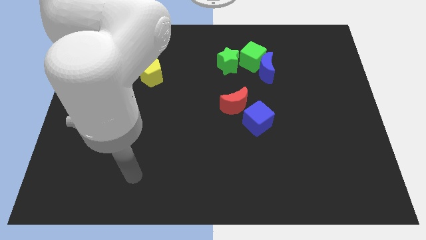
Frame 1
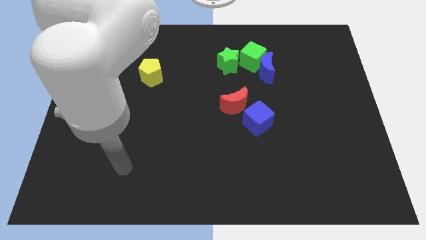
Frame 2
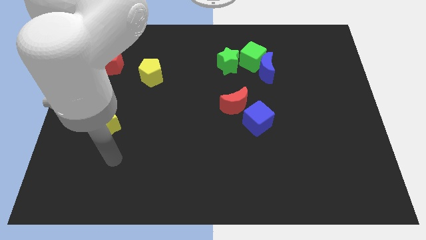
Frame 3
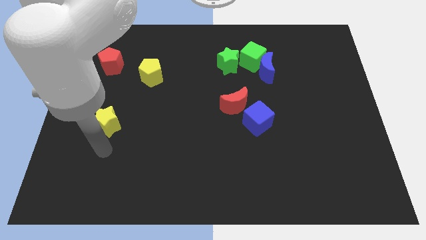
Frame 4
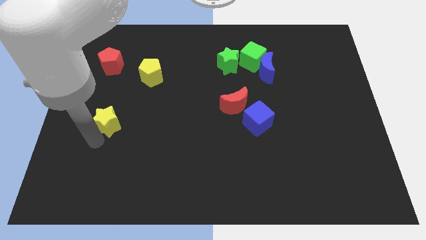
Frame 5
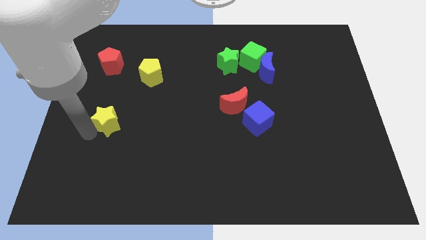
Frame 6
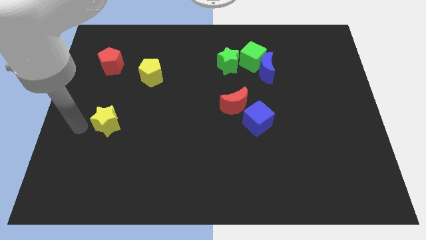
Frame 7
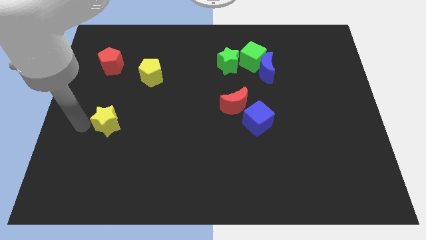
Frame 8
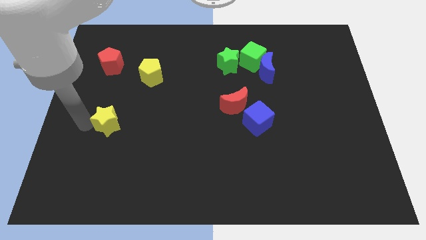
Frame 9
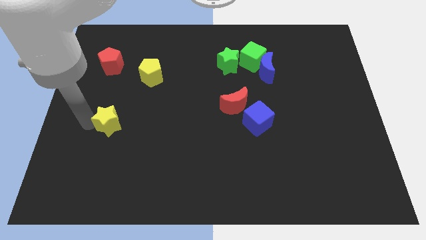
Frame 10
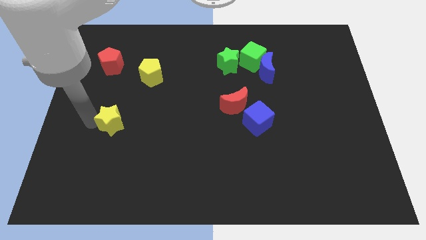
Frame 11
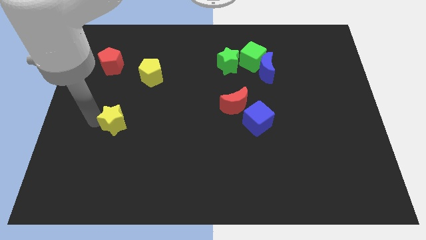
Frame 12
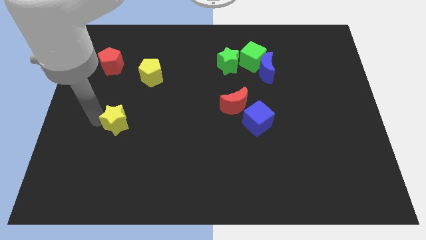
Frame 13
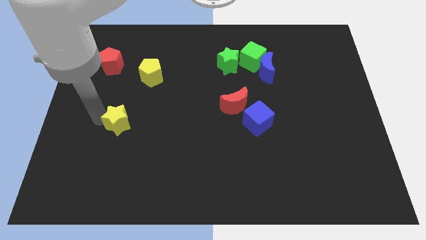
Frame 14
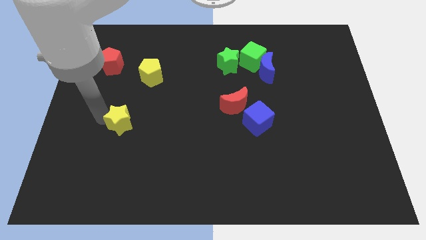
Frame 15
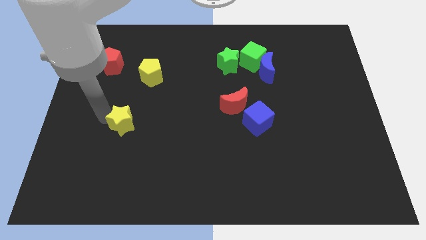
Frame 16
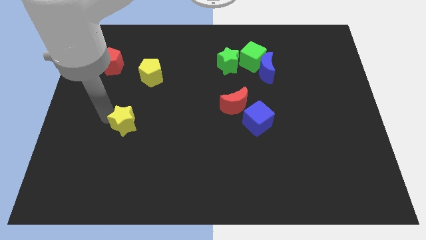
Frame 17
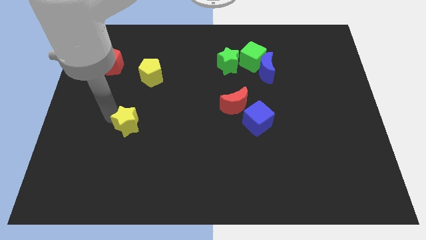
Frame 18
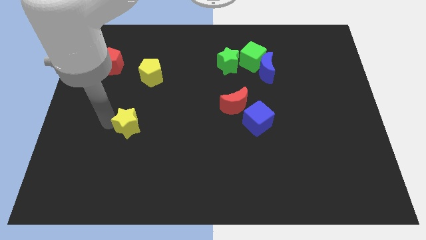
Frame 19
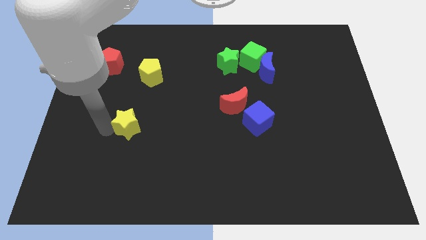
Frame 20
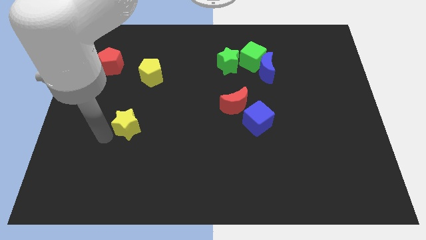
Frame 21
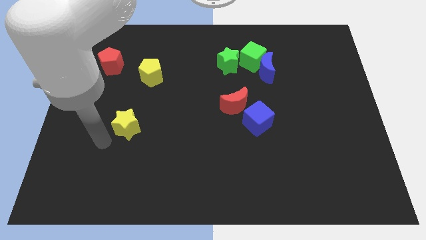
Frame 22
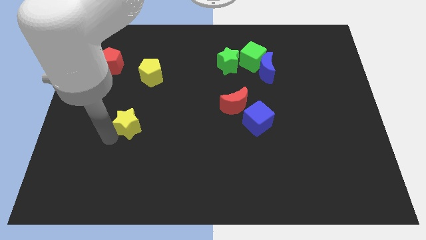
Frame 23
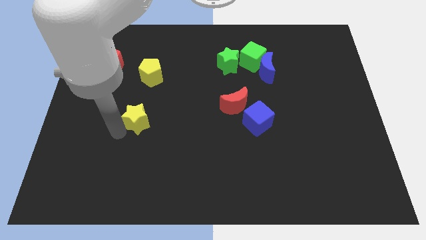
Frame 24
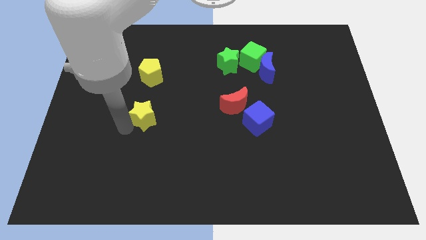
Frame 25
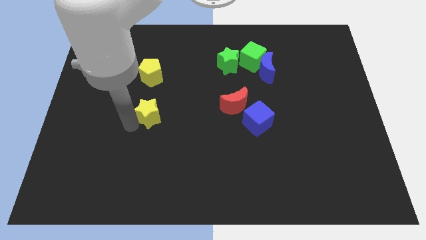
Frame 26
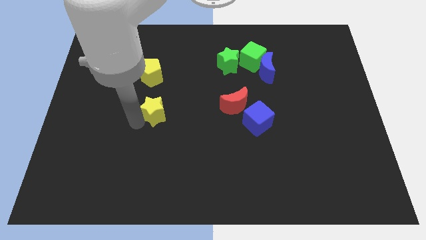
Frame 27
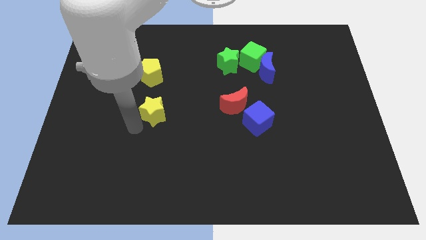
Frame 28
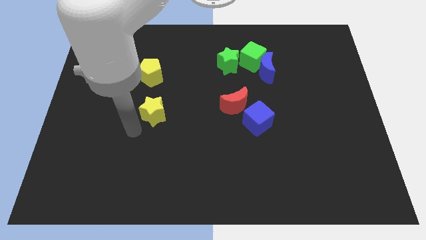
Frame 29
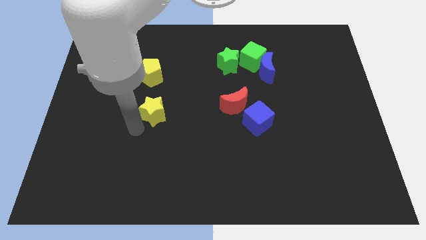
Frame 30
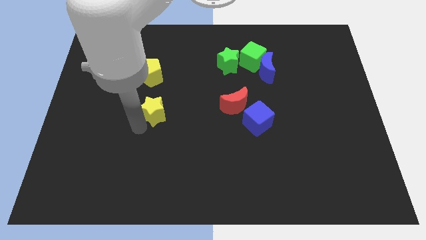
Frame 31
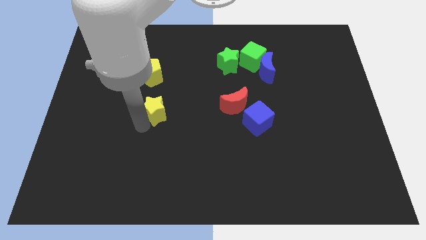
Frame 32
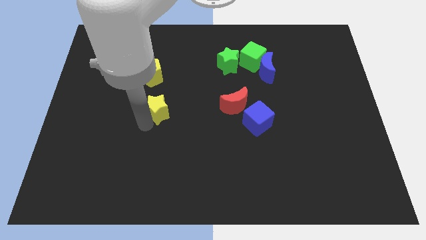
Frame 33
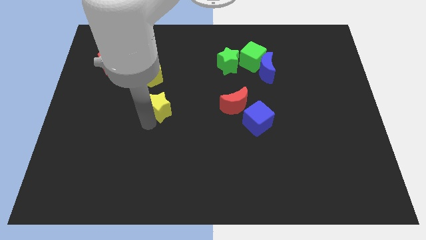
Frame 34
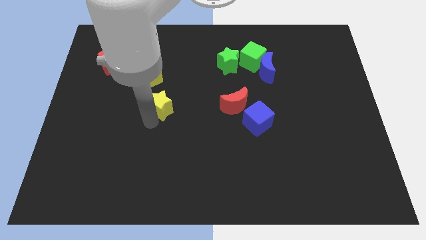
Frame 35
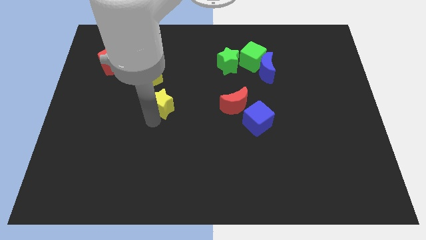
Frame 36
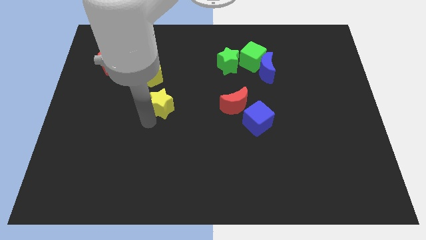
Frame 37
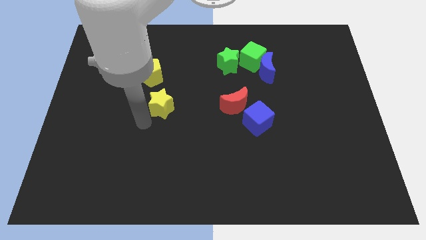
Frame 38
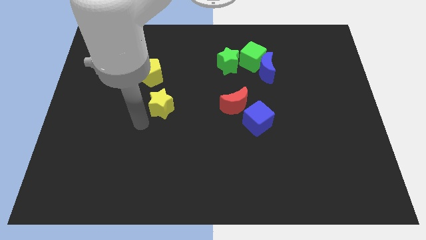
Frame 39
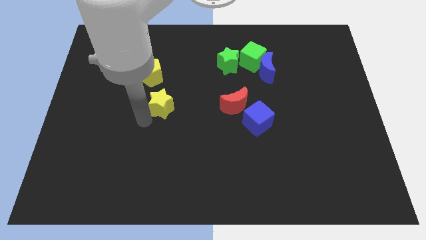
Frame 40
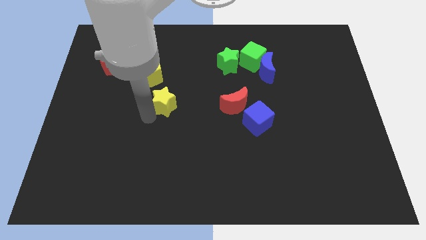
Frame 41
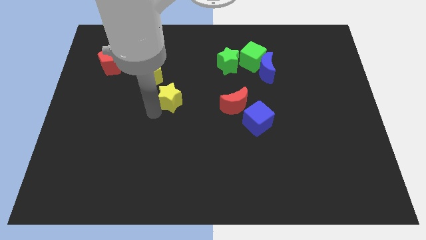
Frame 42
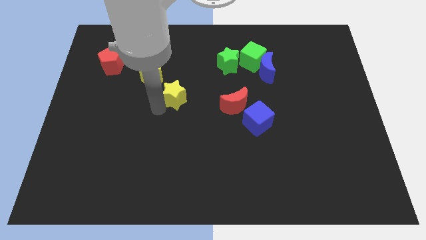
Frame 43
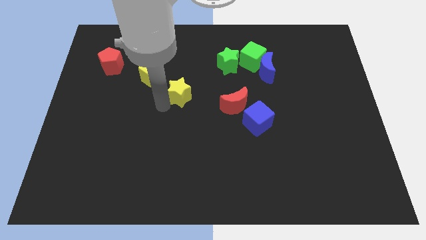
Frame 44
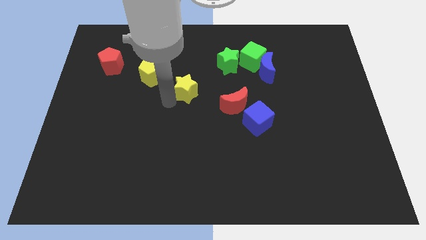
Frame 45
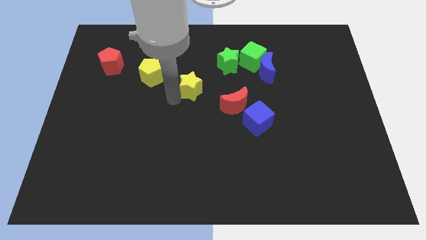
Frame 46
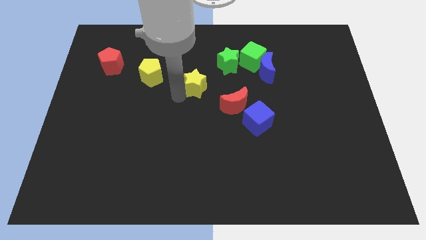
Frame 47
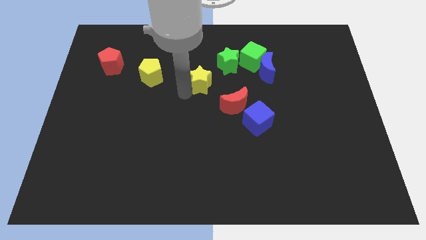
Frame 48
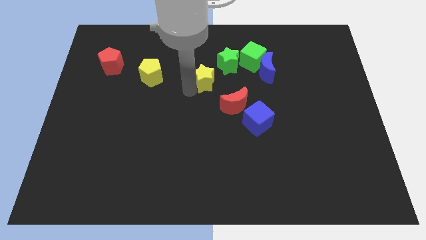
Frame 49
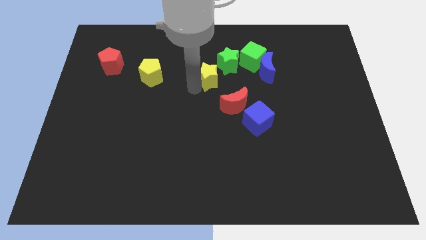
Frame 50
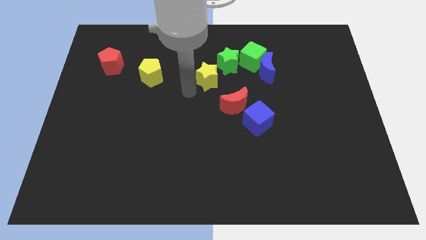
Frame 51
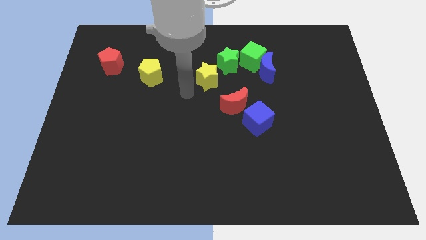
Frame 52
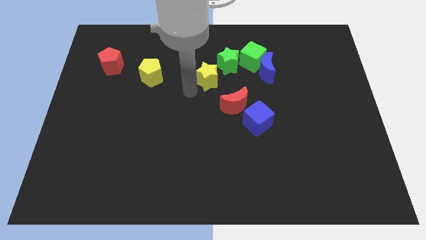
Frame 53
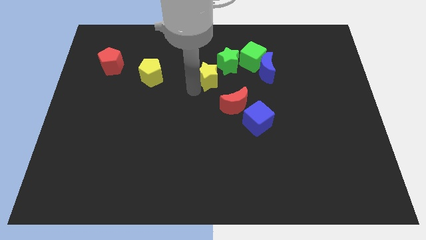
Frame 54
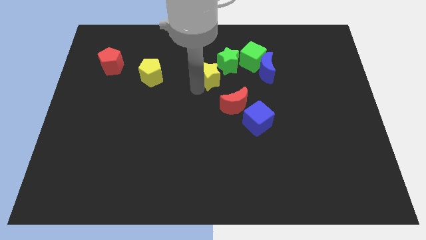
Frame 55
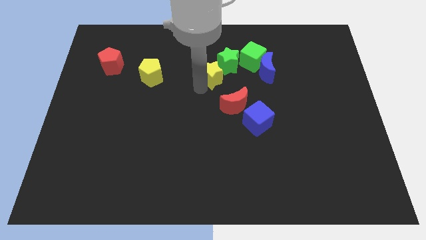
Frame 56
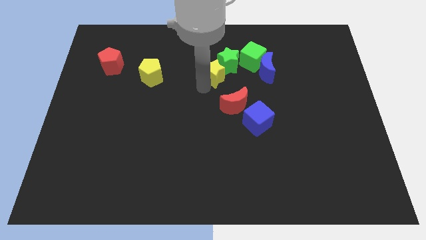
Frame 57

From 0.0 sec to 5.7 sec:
put the yellow star to the green star

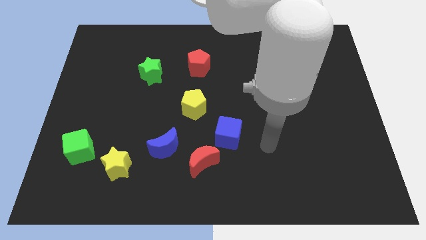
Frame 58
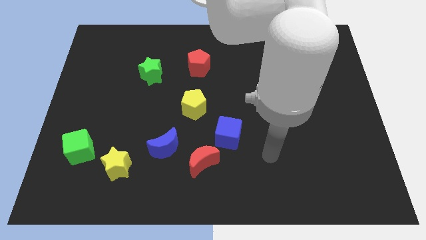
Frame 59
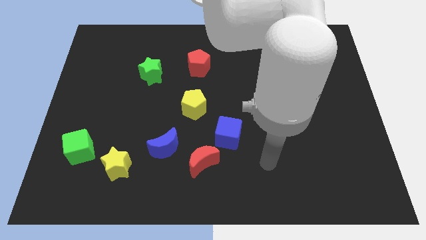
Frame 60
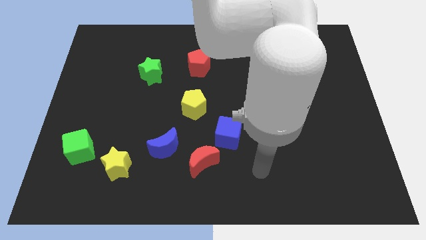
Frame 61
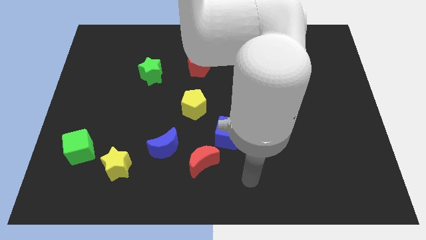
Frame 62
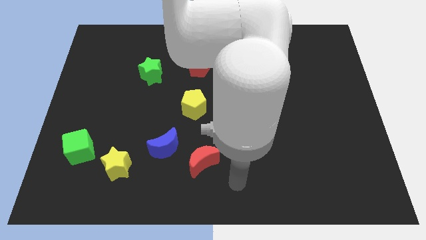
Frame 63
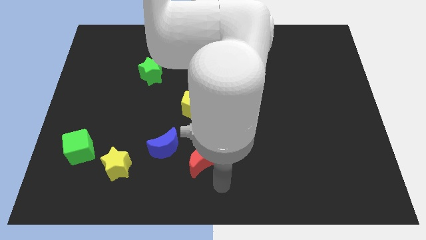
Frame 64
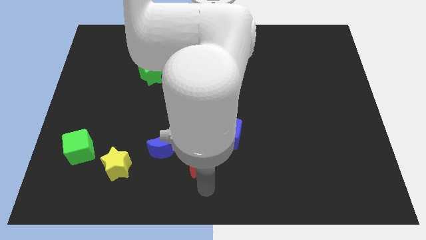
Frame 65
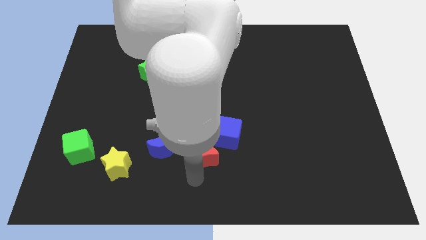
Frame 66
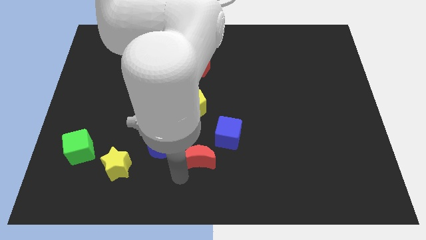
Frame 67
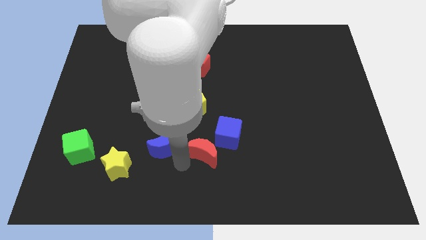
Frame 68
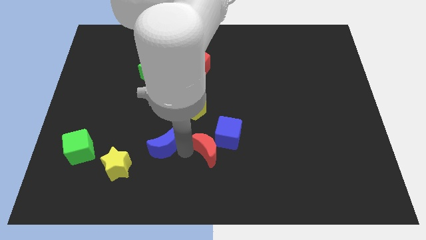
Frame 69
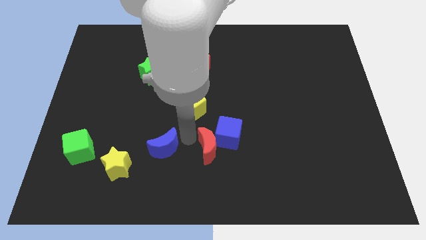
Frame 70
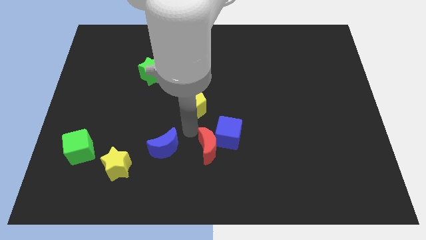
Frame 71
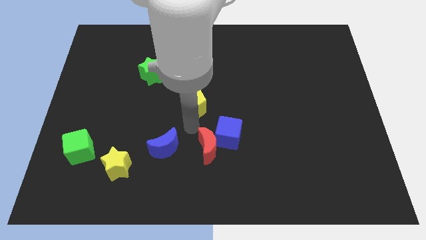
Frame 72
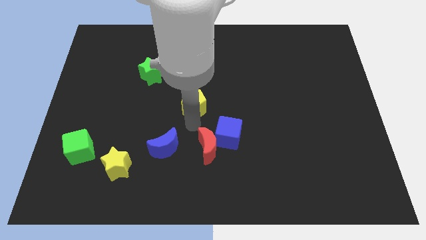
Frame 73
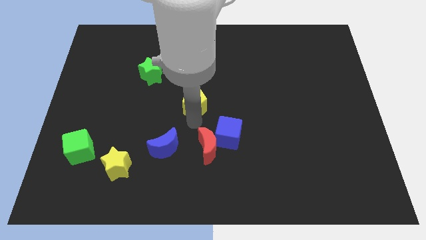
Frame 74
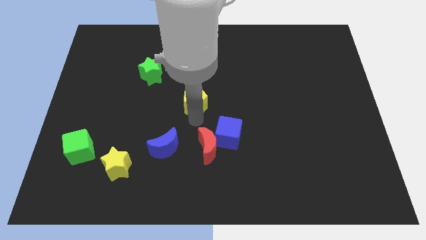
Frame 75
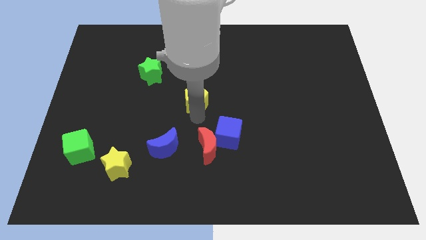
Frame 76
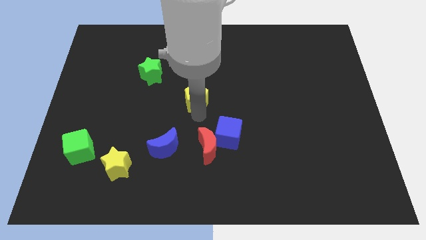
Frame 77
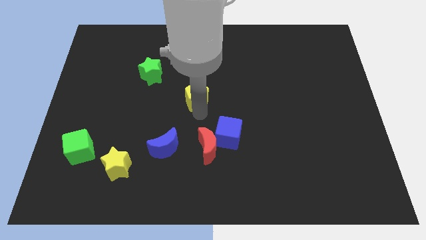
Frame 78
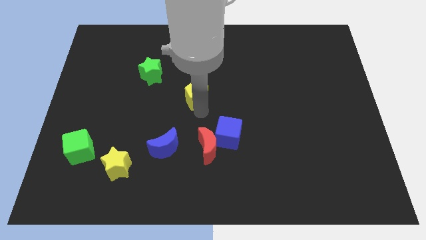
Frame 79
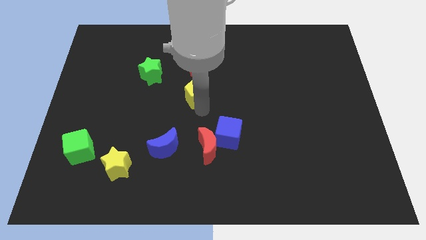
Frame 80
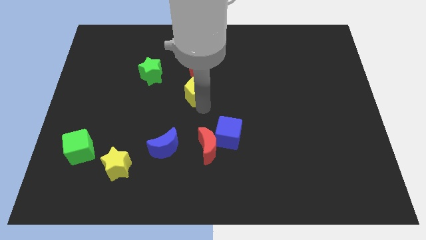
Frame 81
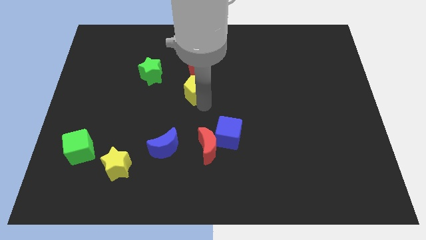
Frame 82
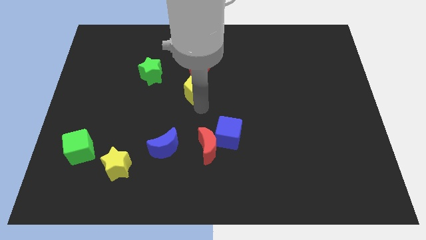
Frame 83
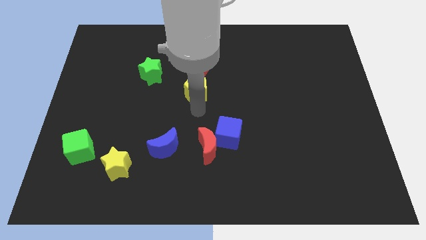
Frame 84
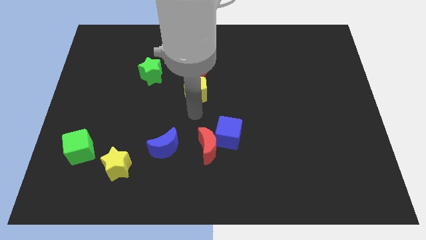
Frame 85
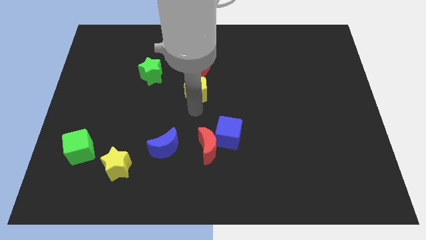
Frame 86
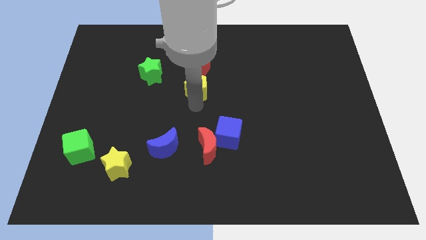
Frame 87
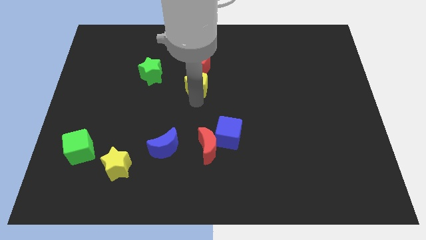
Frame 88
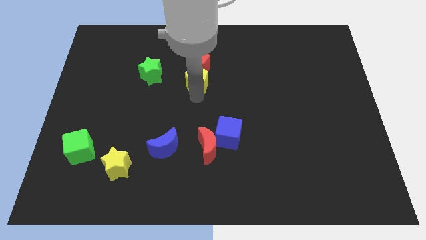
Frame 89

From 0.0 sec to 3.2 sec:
put the yellow pentagon towards the red pentagon
